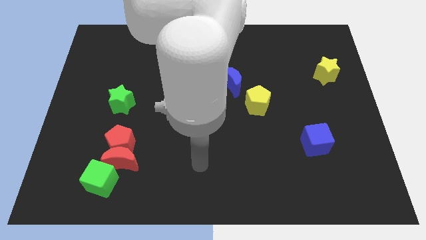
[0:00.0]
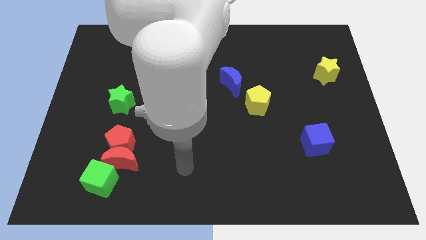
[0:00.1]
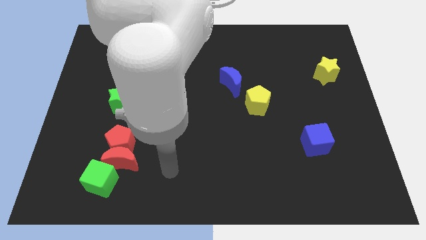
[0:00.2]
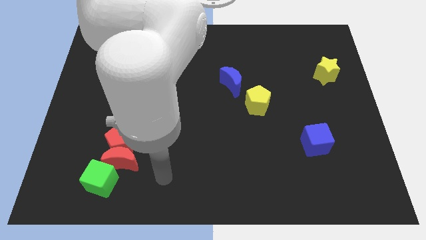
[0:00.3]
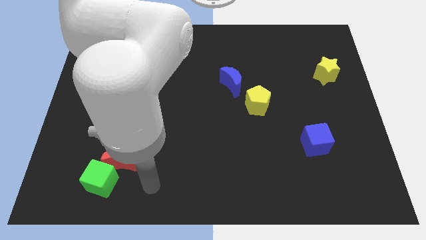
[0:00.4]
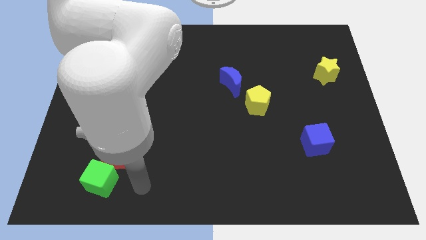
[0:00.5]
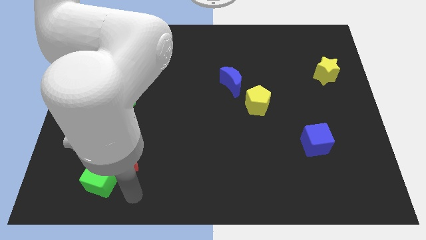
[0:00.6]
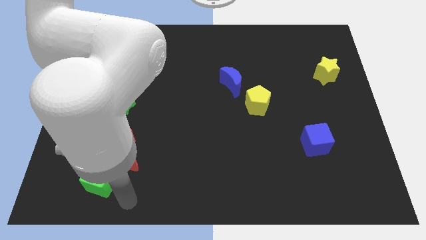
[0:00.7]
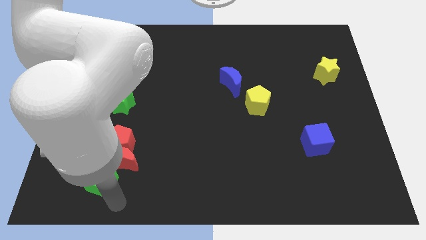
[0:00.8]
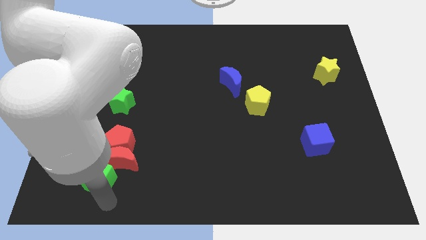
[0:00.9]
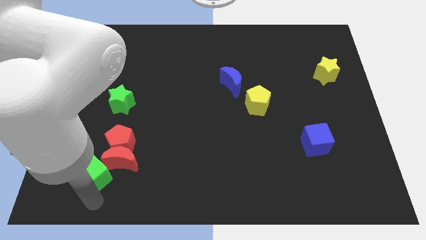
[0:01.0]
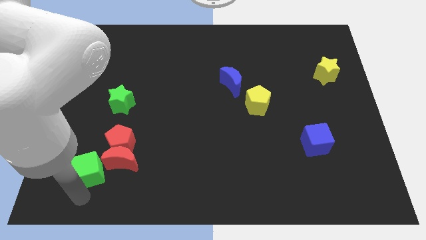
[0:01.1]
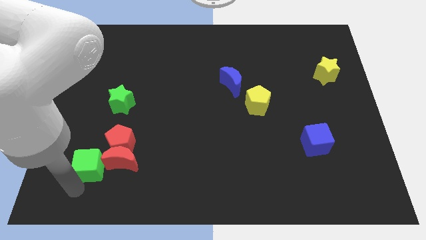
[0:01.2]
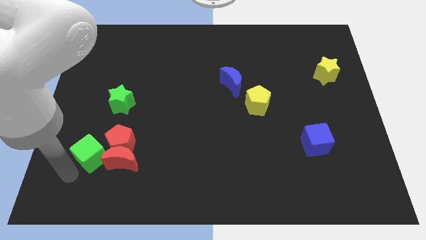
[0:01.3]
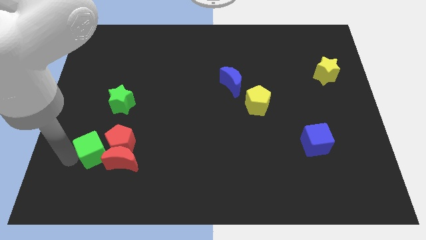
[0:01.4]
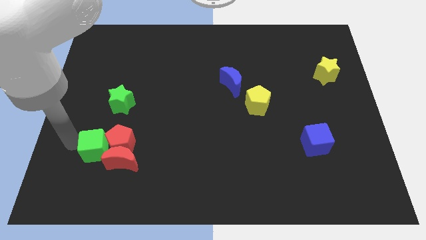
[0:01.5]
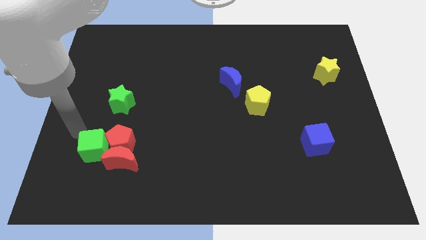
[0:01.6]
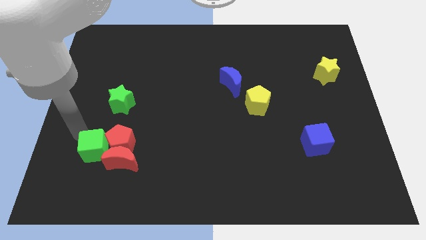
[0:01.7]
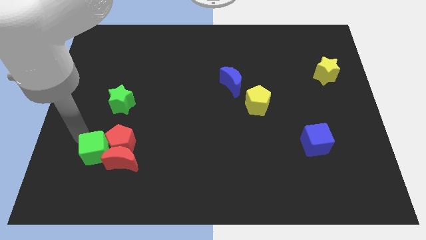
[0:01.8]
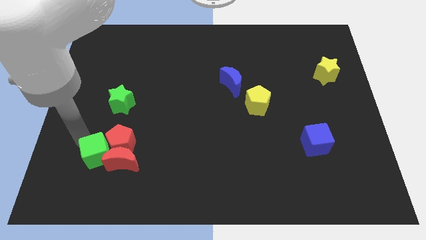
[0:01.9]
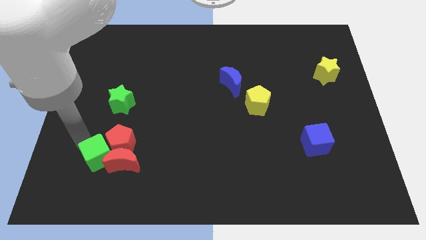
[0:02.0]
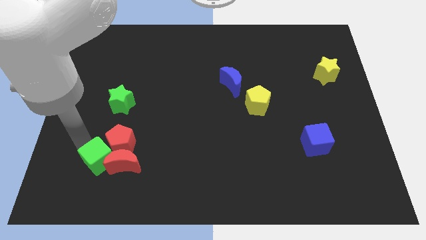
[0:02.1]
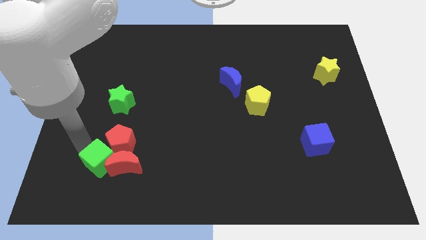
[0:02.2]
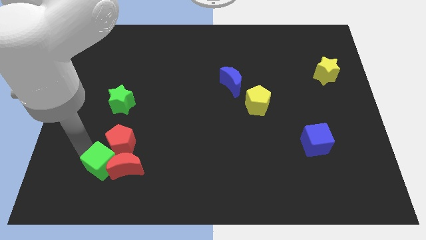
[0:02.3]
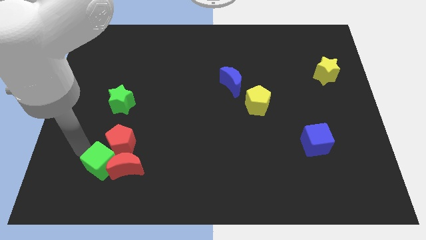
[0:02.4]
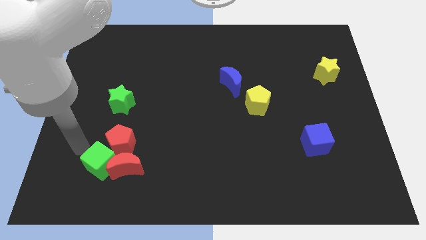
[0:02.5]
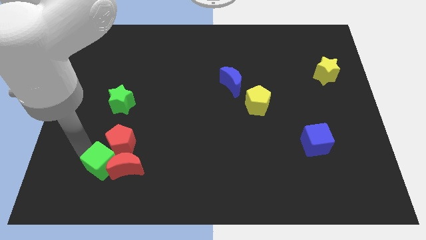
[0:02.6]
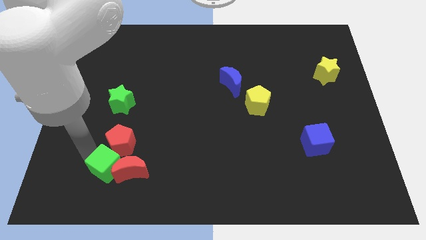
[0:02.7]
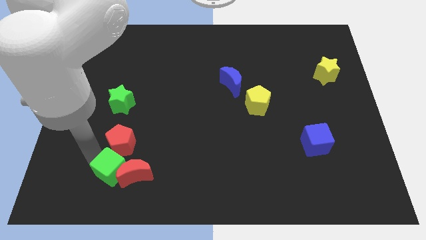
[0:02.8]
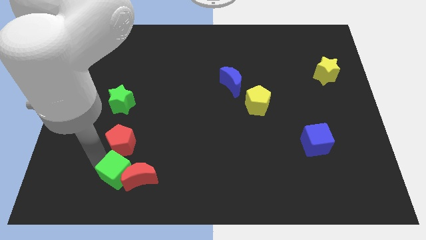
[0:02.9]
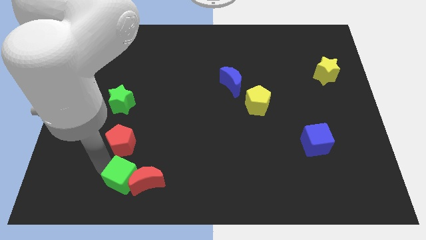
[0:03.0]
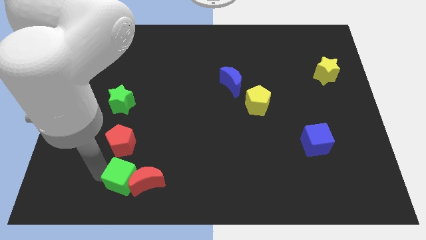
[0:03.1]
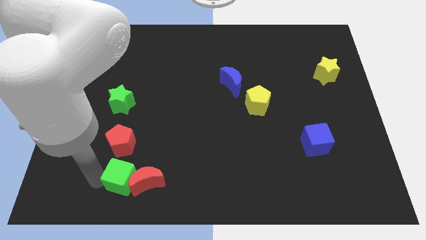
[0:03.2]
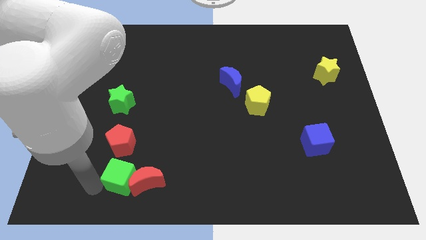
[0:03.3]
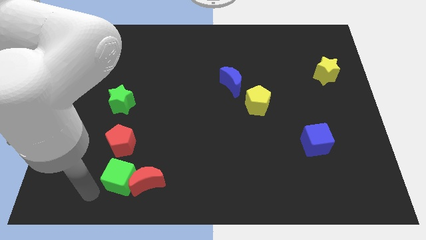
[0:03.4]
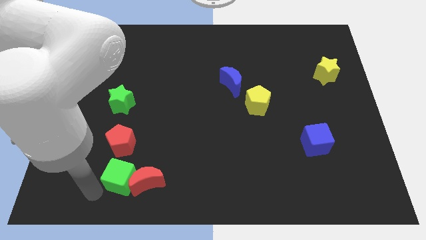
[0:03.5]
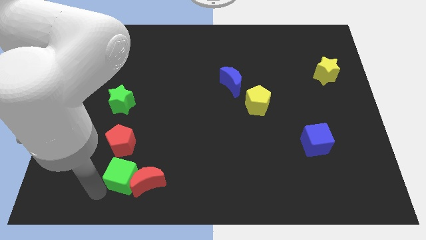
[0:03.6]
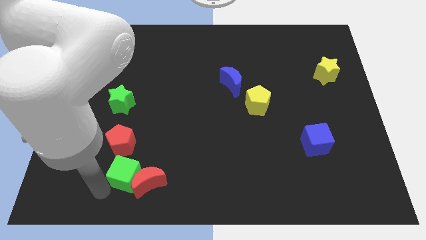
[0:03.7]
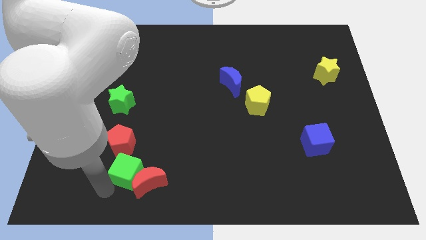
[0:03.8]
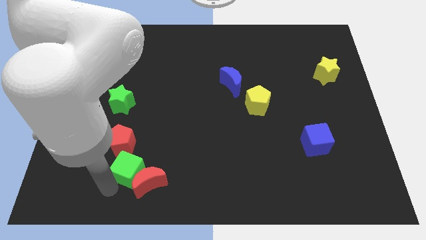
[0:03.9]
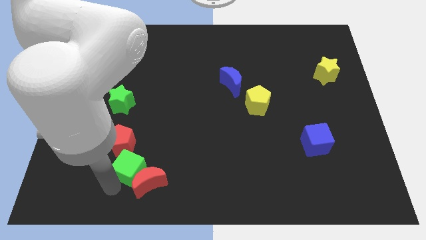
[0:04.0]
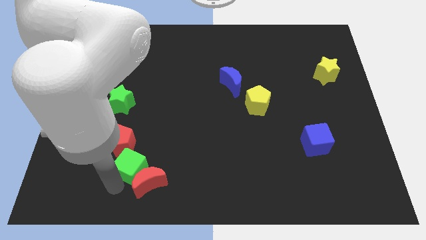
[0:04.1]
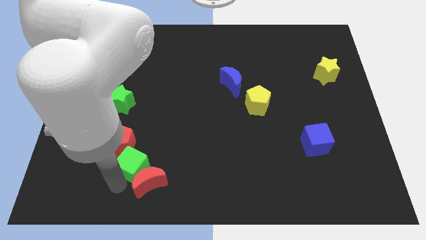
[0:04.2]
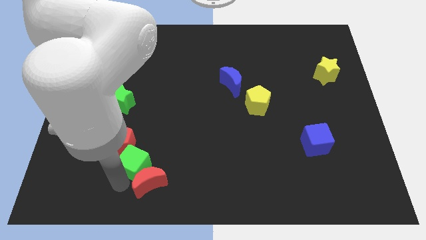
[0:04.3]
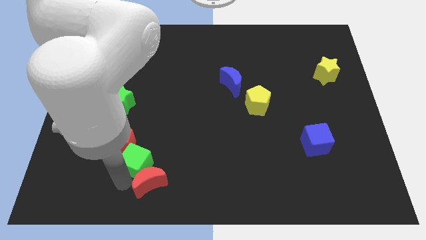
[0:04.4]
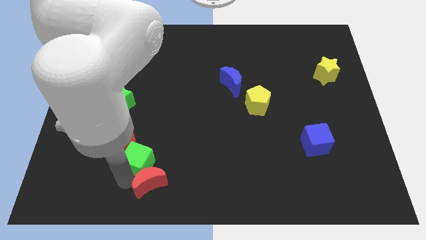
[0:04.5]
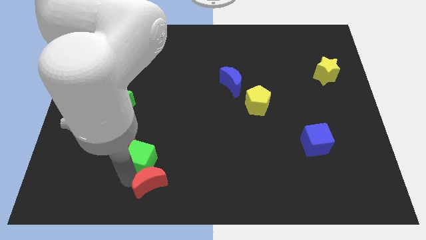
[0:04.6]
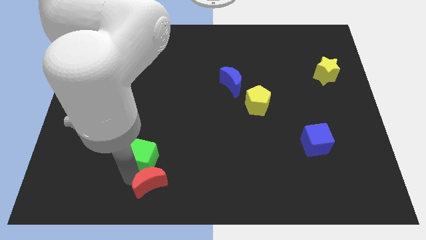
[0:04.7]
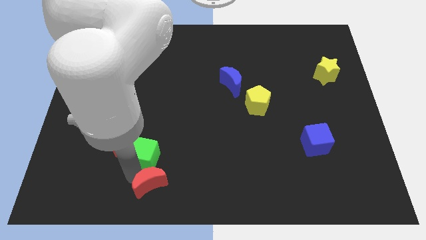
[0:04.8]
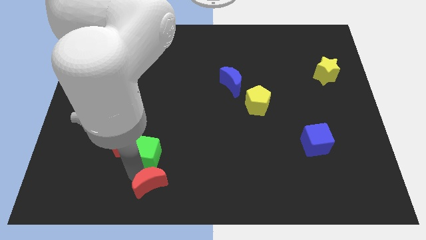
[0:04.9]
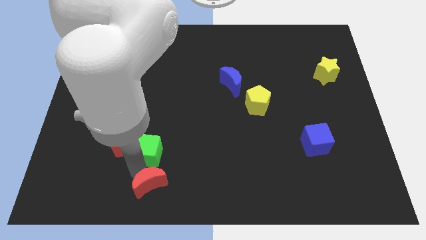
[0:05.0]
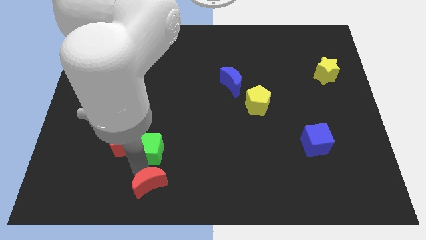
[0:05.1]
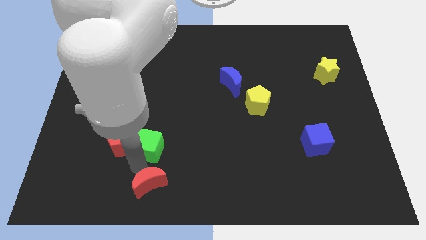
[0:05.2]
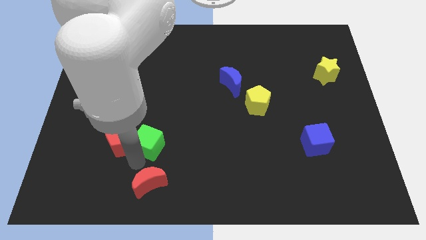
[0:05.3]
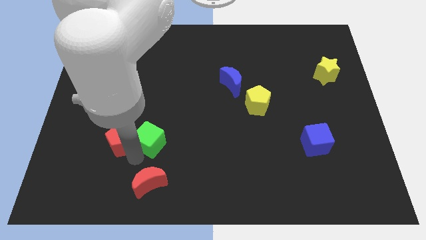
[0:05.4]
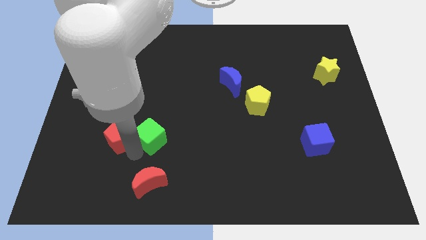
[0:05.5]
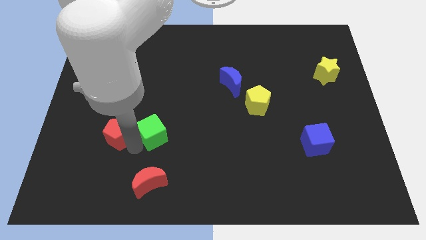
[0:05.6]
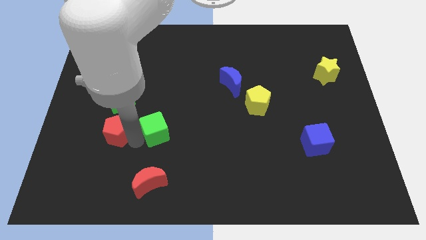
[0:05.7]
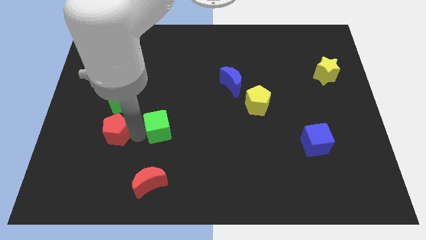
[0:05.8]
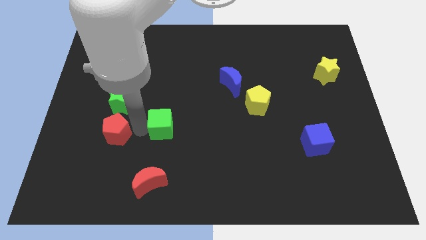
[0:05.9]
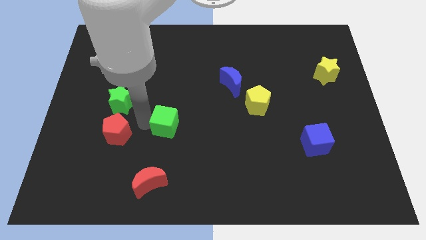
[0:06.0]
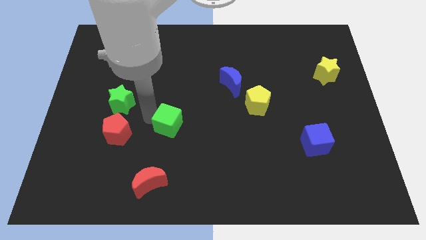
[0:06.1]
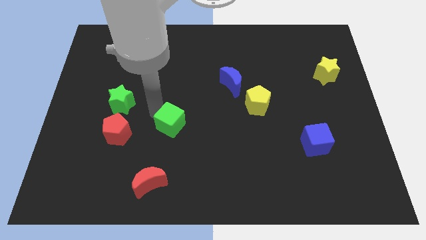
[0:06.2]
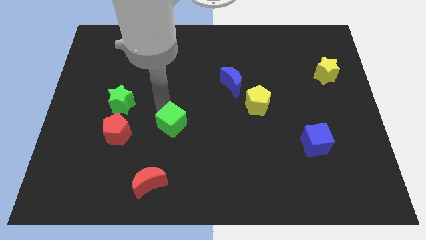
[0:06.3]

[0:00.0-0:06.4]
slide the green cube up and then right

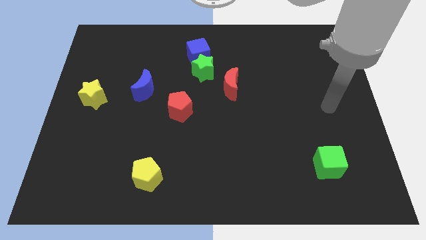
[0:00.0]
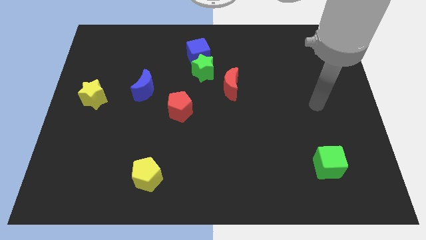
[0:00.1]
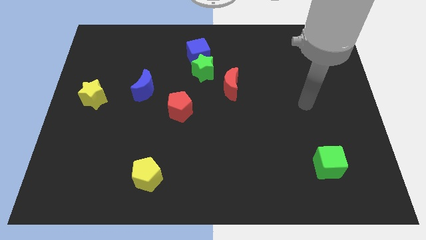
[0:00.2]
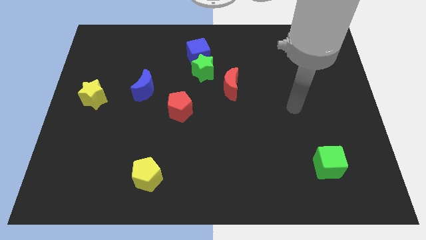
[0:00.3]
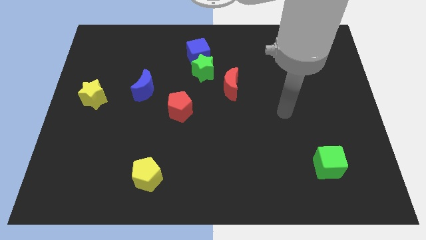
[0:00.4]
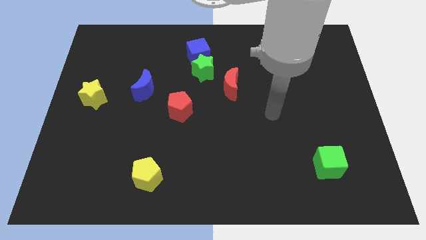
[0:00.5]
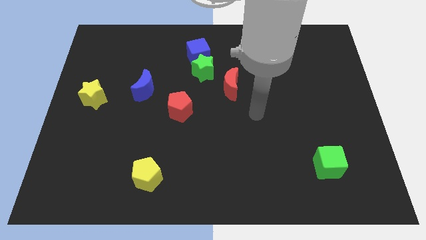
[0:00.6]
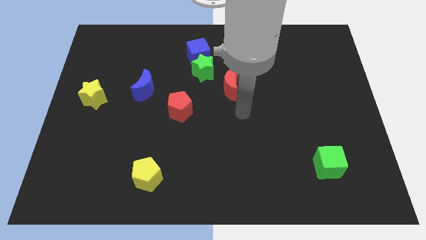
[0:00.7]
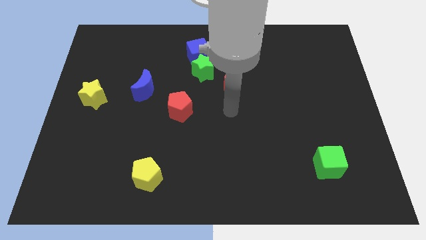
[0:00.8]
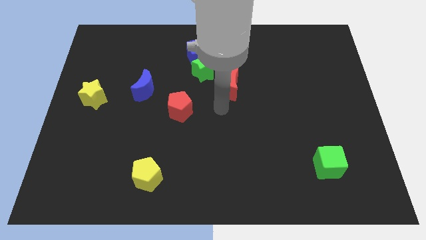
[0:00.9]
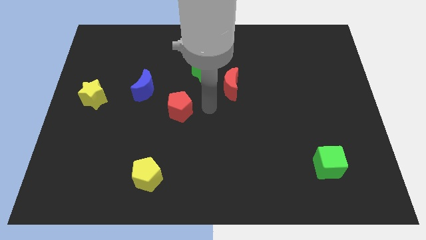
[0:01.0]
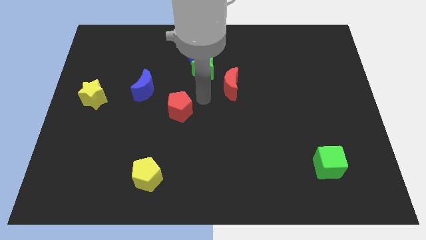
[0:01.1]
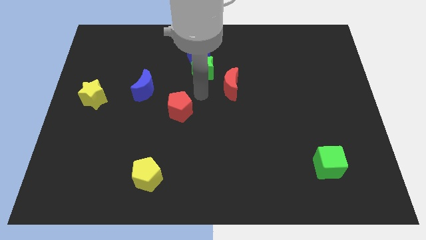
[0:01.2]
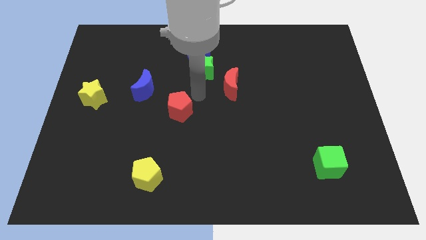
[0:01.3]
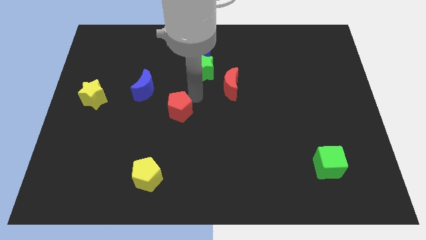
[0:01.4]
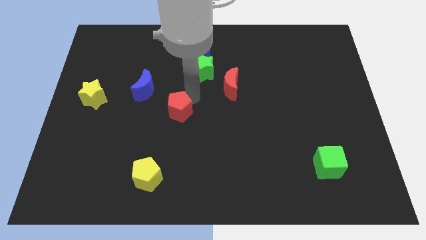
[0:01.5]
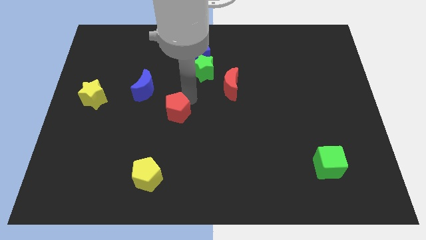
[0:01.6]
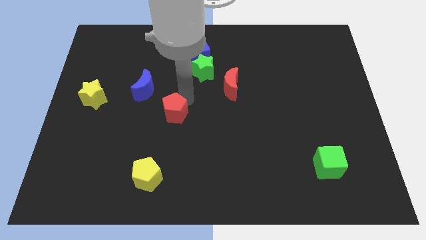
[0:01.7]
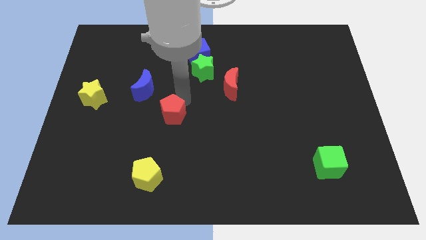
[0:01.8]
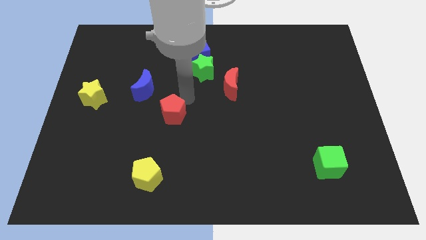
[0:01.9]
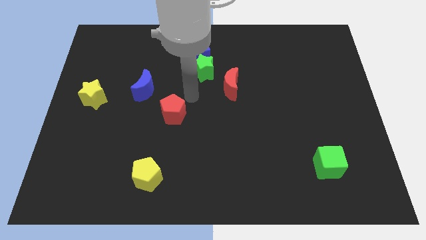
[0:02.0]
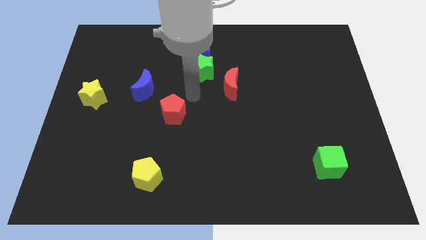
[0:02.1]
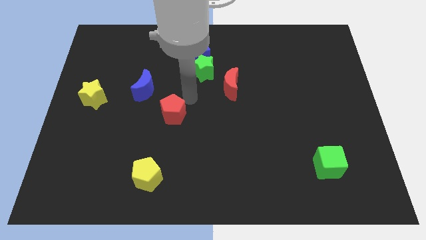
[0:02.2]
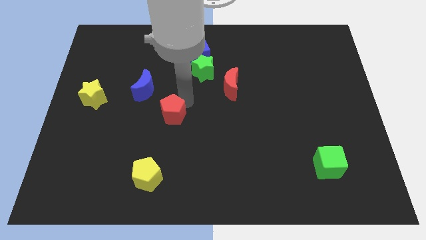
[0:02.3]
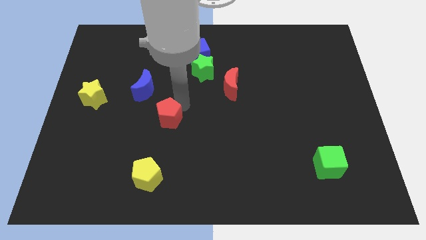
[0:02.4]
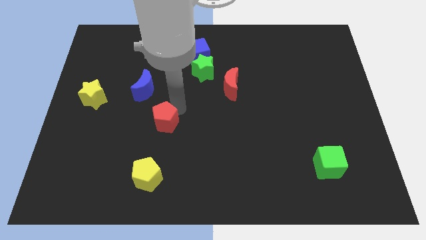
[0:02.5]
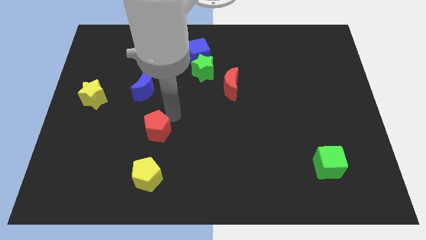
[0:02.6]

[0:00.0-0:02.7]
move the red pentagon diagonally down and left a bit
